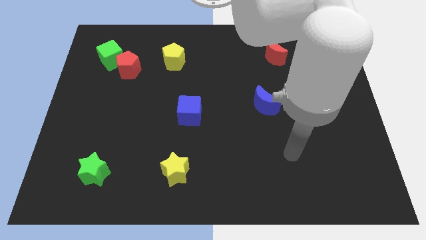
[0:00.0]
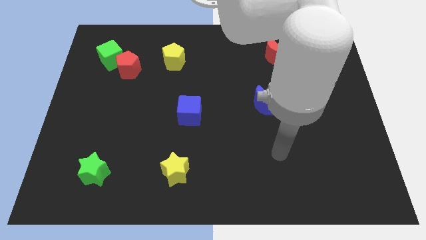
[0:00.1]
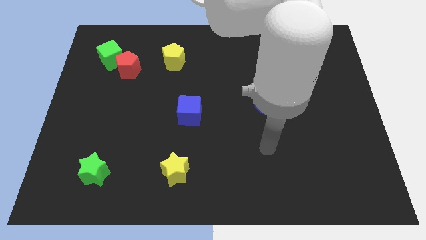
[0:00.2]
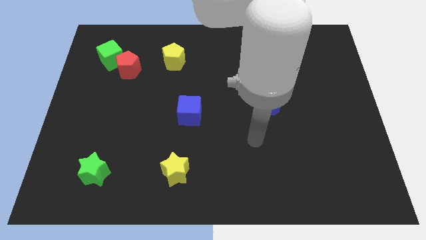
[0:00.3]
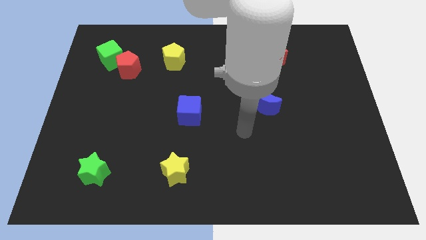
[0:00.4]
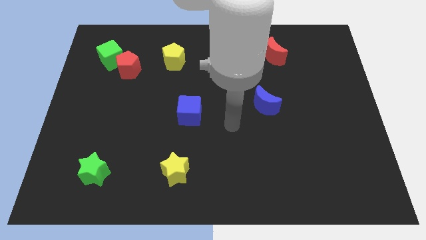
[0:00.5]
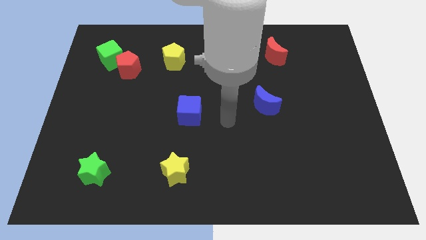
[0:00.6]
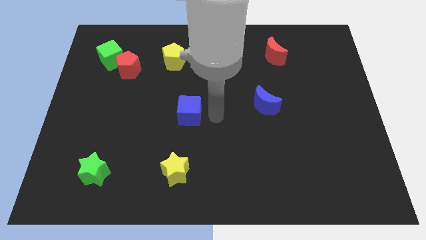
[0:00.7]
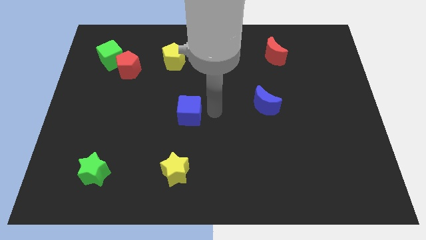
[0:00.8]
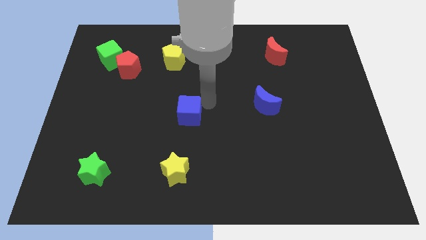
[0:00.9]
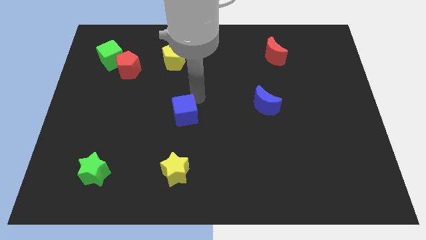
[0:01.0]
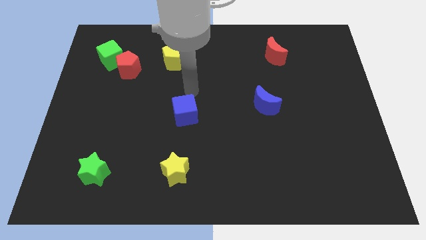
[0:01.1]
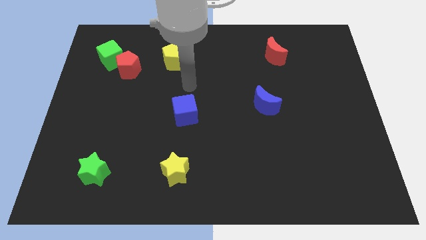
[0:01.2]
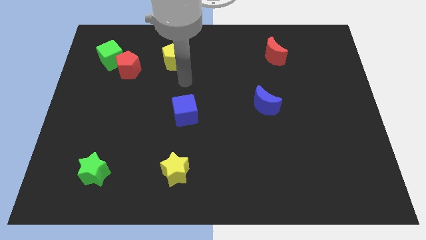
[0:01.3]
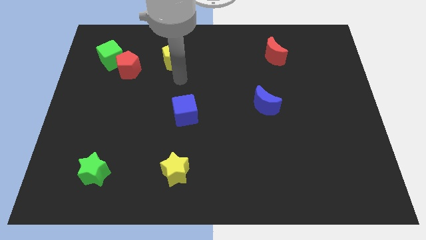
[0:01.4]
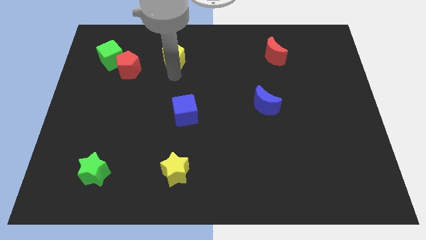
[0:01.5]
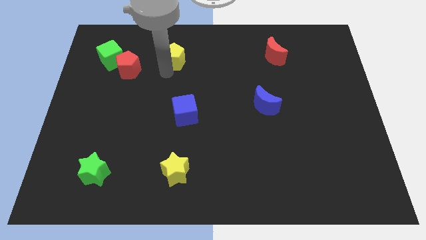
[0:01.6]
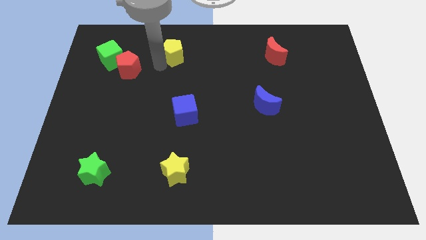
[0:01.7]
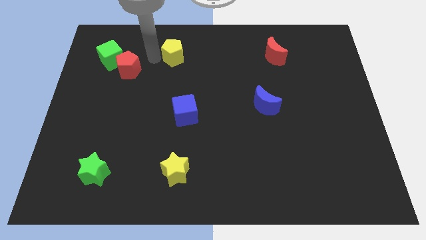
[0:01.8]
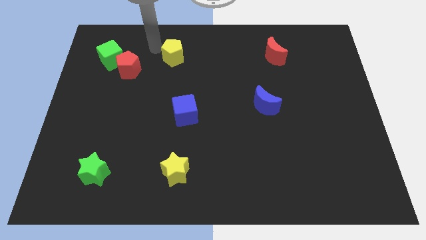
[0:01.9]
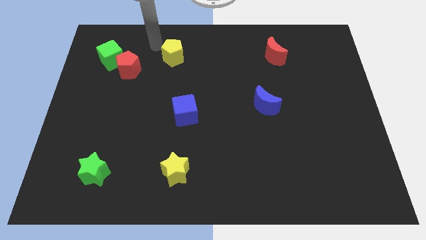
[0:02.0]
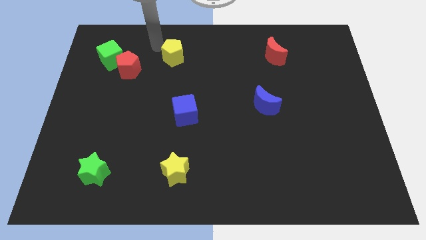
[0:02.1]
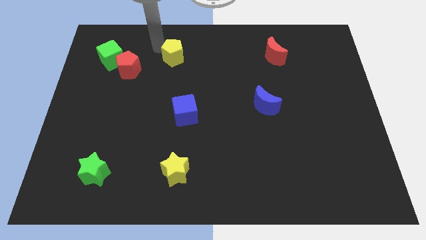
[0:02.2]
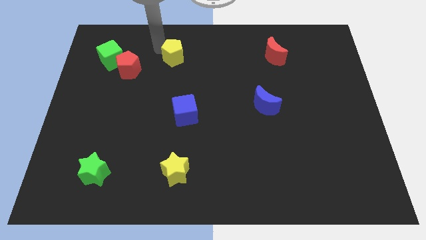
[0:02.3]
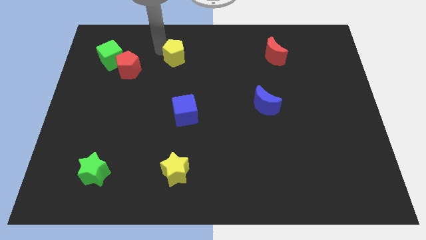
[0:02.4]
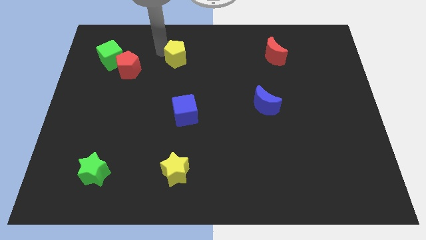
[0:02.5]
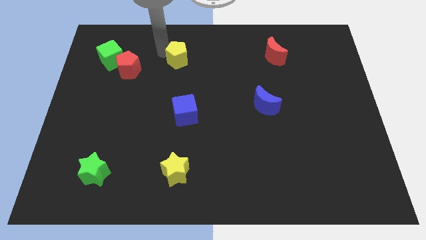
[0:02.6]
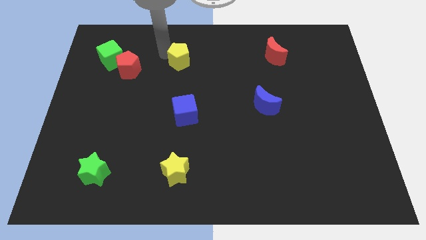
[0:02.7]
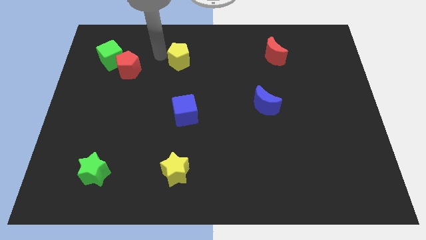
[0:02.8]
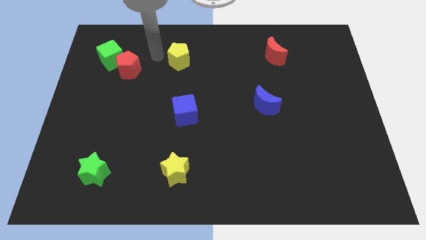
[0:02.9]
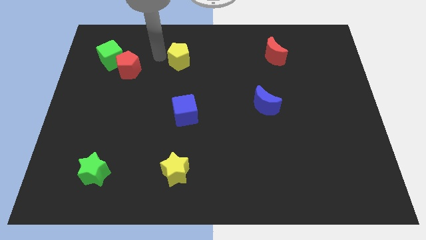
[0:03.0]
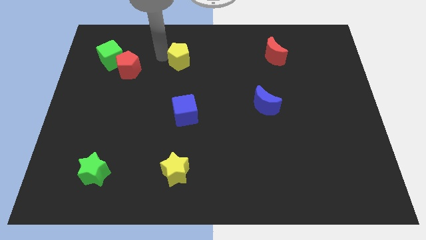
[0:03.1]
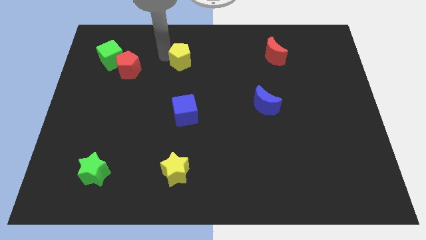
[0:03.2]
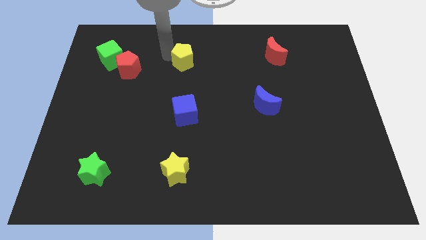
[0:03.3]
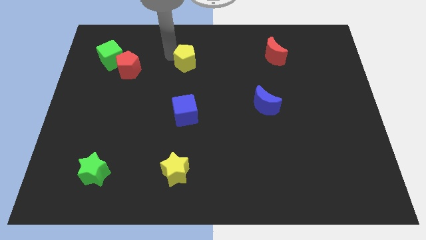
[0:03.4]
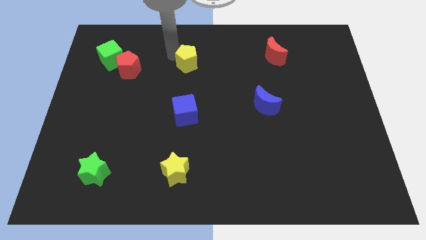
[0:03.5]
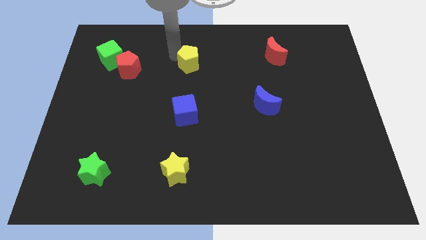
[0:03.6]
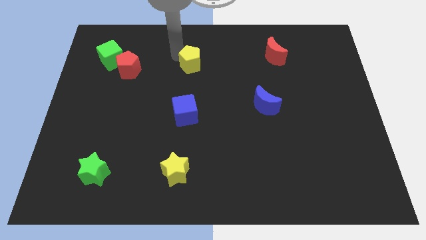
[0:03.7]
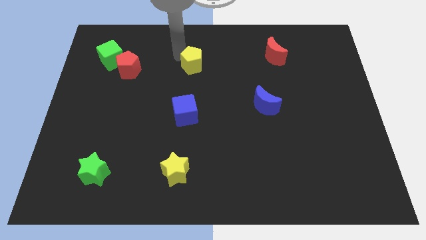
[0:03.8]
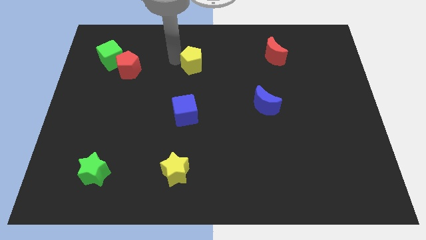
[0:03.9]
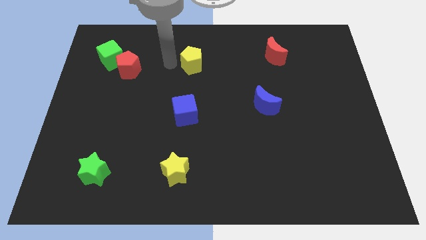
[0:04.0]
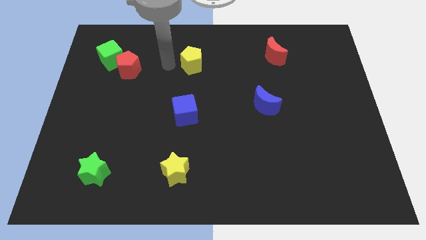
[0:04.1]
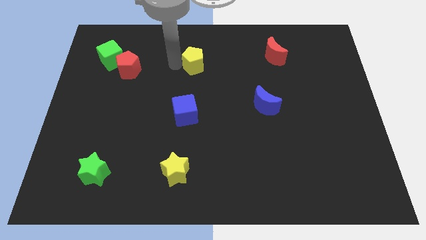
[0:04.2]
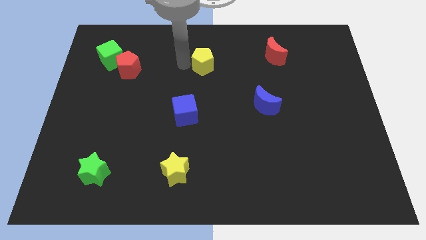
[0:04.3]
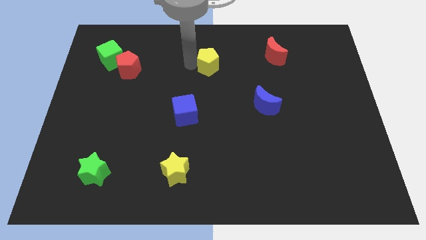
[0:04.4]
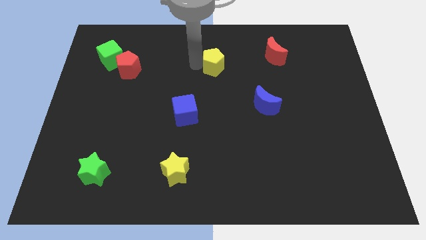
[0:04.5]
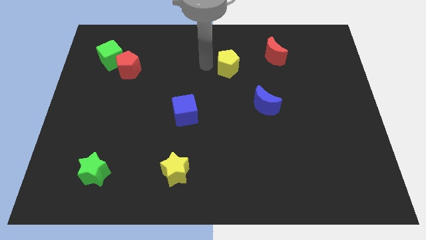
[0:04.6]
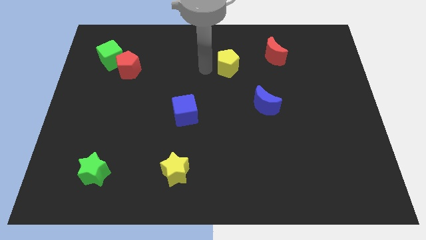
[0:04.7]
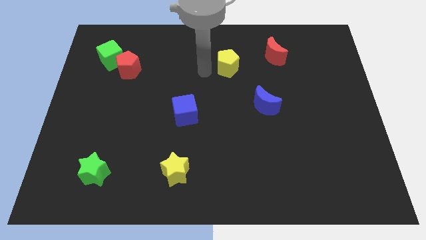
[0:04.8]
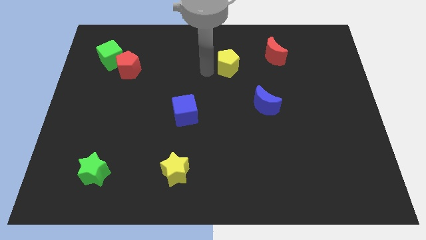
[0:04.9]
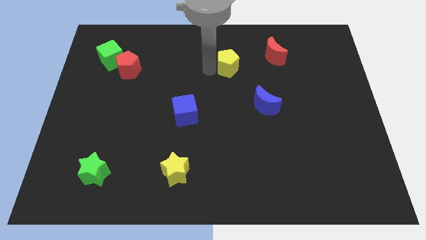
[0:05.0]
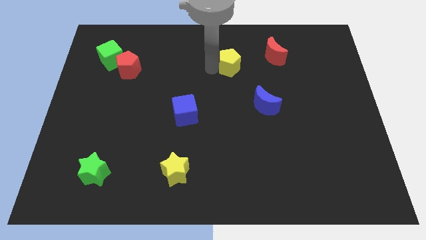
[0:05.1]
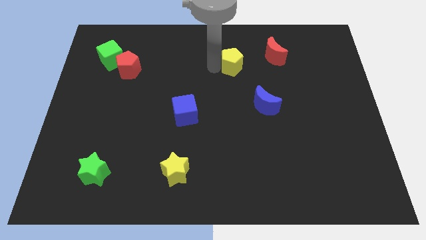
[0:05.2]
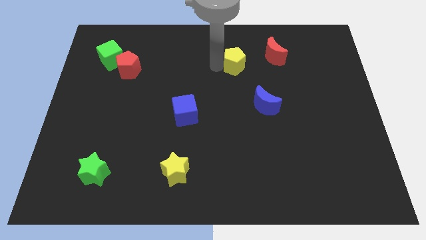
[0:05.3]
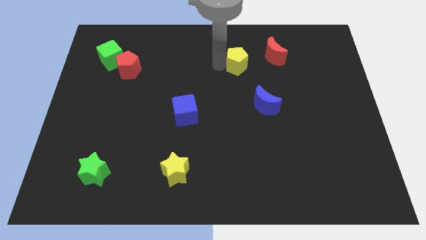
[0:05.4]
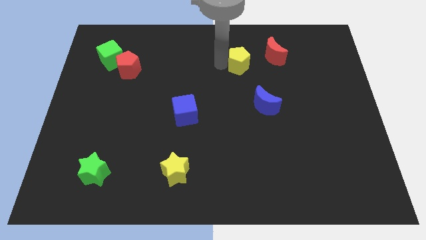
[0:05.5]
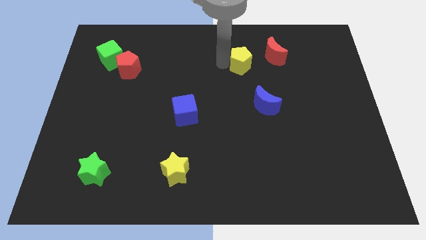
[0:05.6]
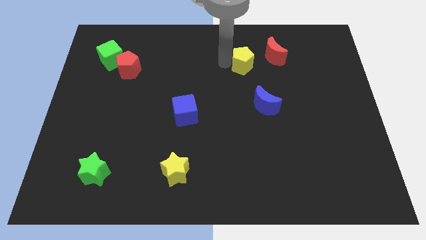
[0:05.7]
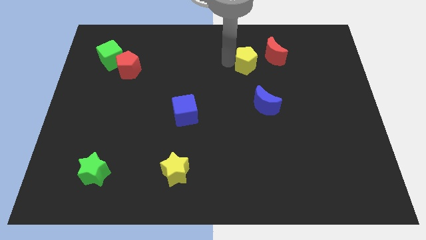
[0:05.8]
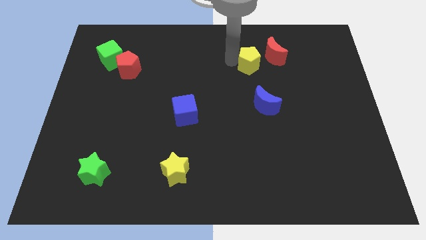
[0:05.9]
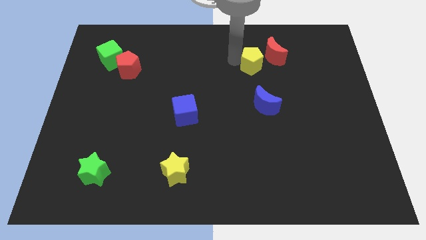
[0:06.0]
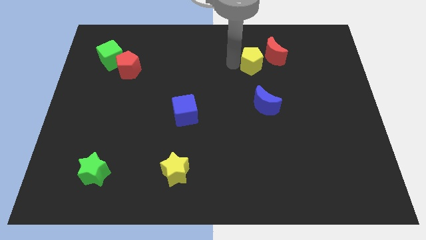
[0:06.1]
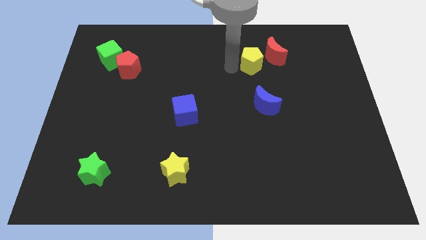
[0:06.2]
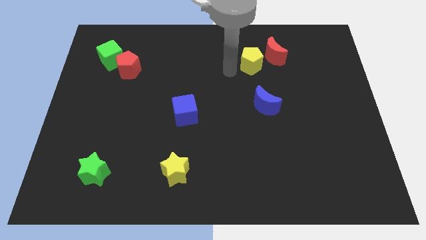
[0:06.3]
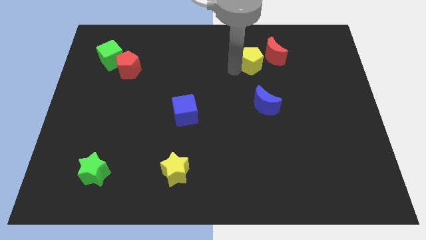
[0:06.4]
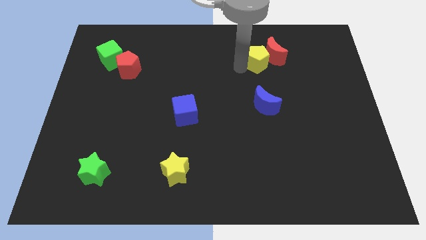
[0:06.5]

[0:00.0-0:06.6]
slide the yellow pentagon to the red moon
